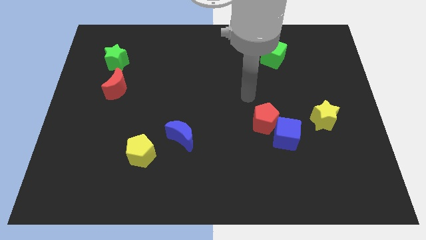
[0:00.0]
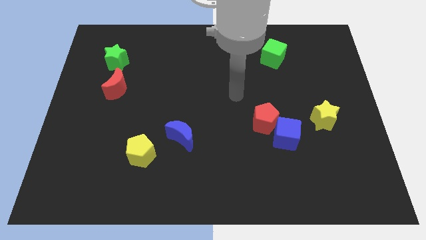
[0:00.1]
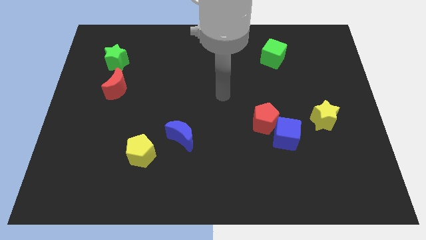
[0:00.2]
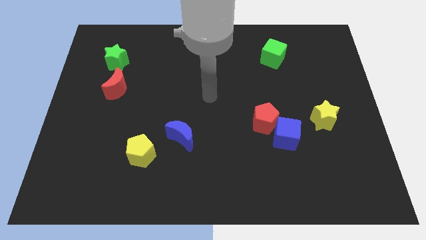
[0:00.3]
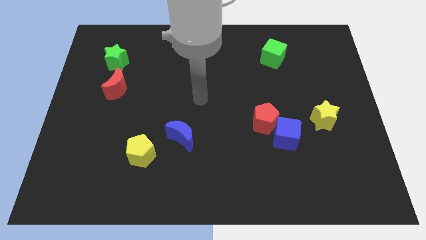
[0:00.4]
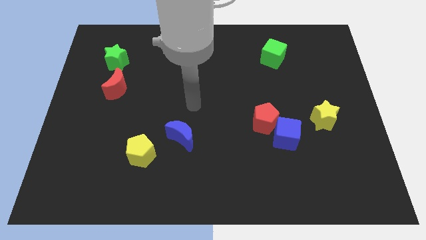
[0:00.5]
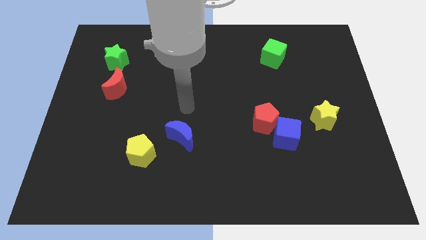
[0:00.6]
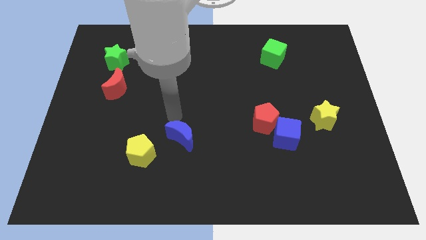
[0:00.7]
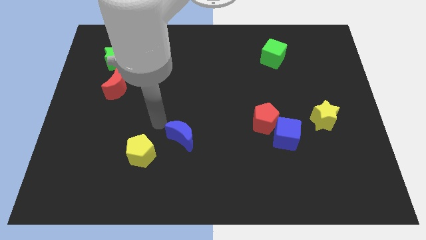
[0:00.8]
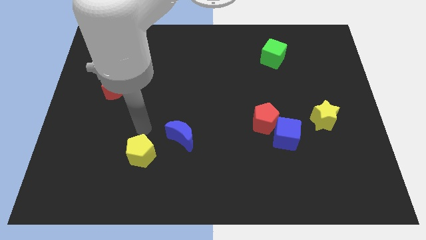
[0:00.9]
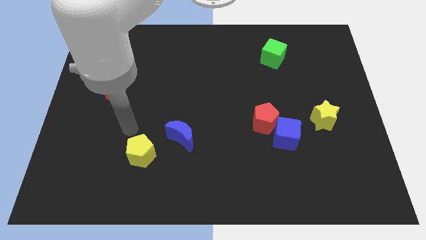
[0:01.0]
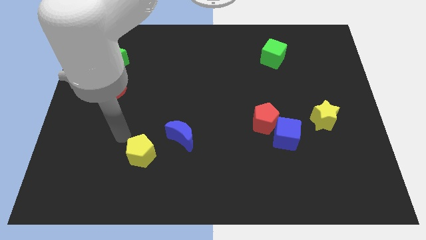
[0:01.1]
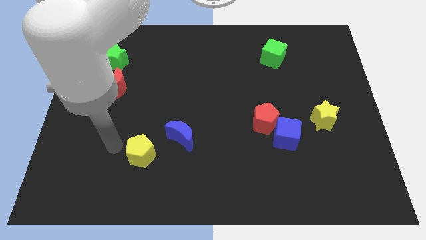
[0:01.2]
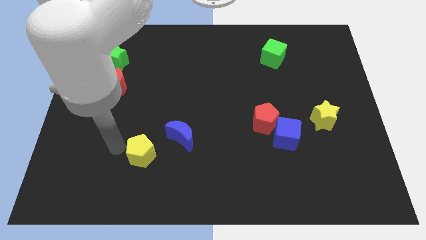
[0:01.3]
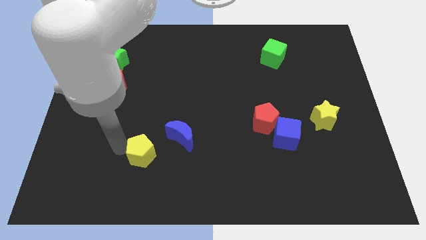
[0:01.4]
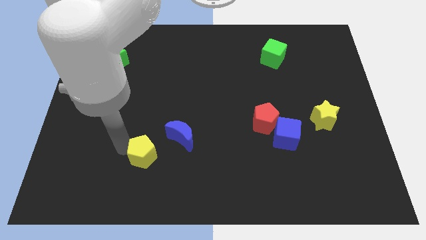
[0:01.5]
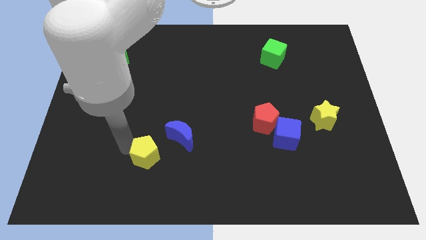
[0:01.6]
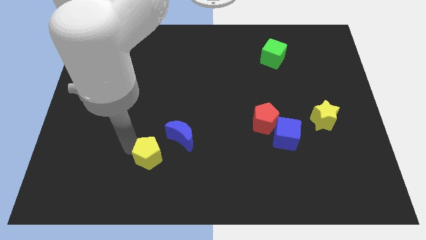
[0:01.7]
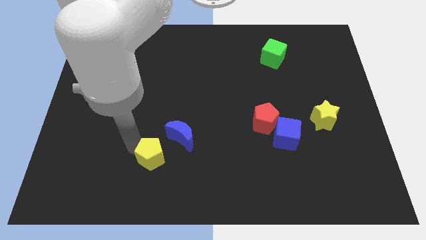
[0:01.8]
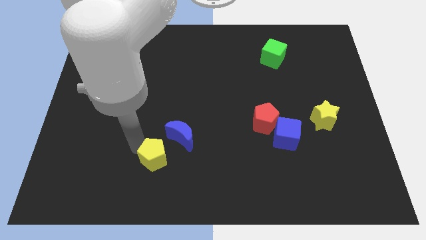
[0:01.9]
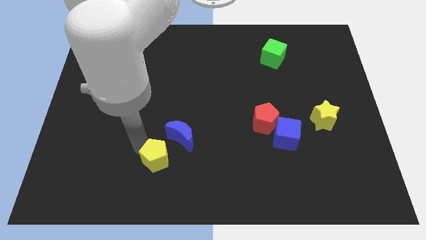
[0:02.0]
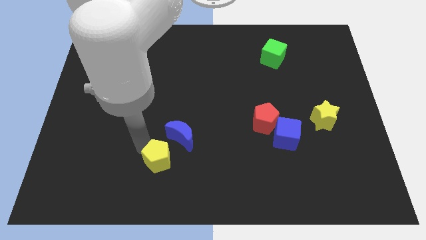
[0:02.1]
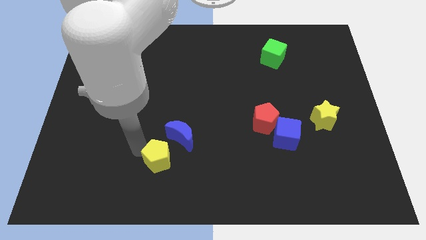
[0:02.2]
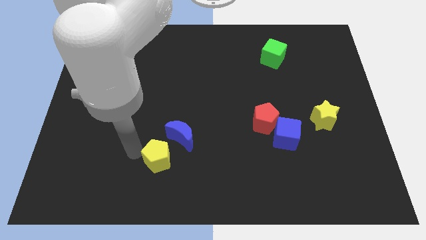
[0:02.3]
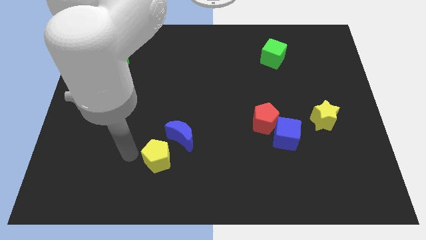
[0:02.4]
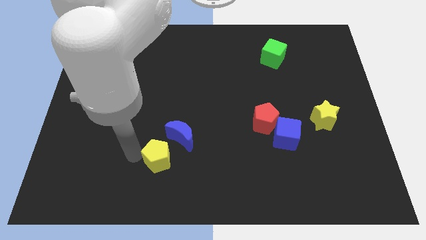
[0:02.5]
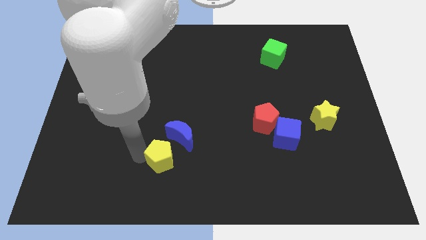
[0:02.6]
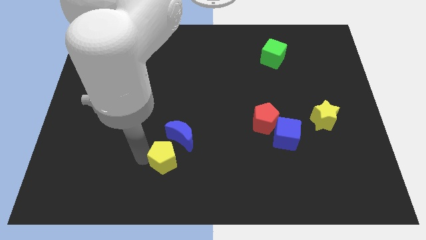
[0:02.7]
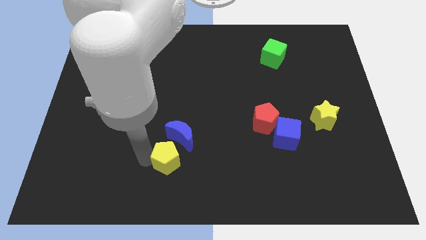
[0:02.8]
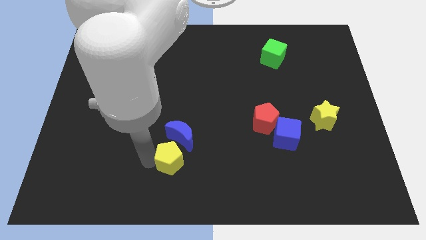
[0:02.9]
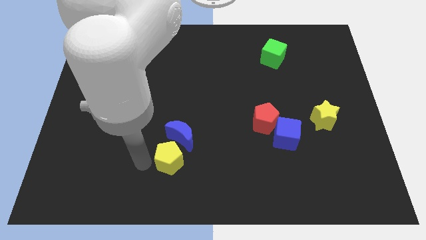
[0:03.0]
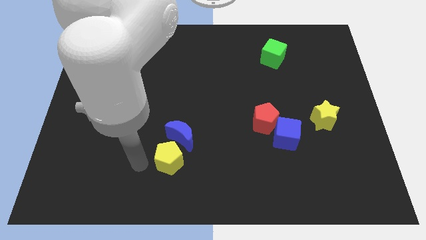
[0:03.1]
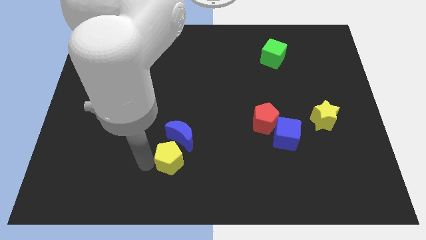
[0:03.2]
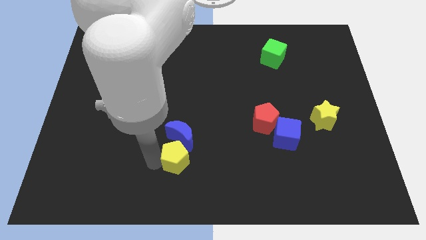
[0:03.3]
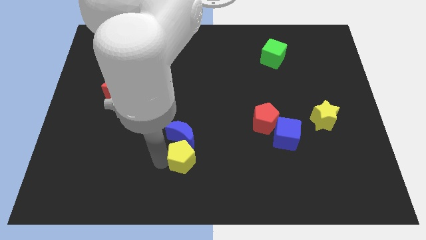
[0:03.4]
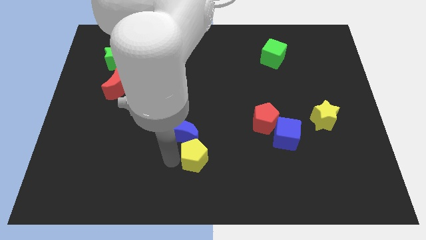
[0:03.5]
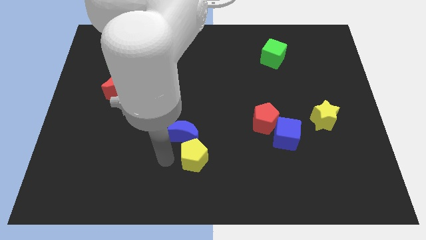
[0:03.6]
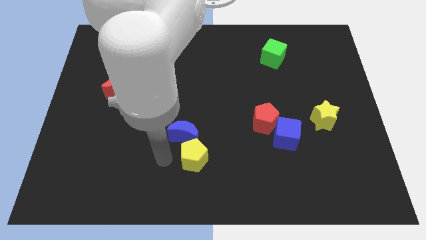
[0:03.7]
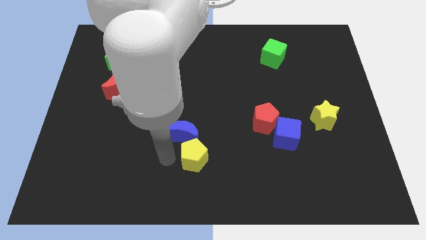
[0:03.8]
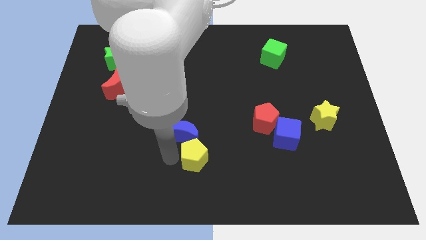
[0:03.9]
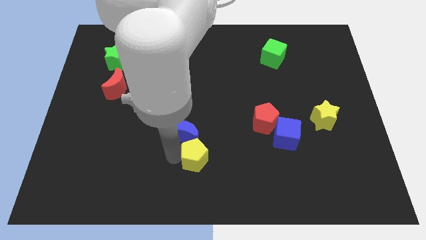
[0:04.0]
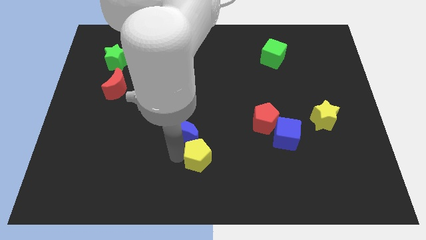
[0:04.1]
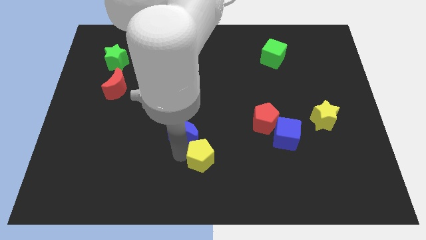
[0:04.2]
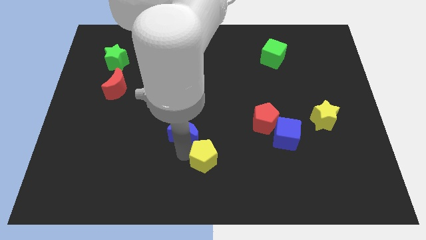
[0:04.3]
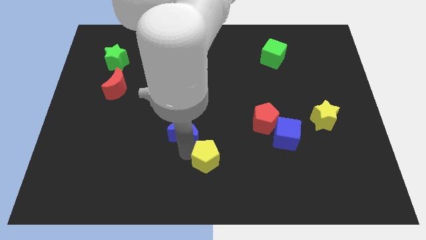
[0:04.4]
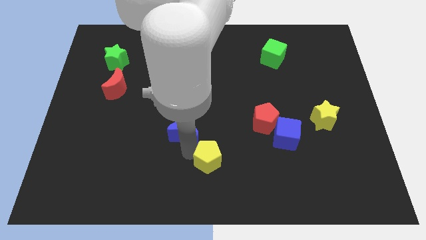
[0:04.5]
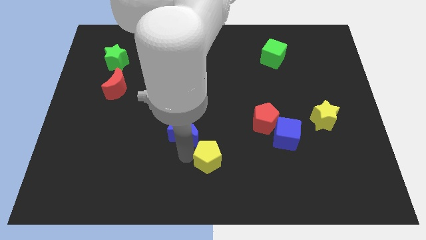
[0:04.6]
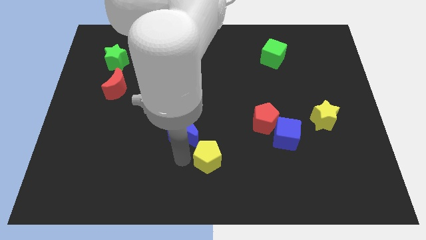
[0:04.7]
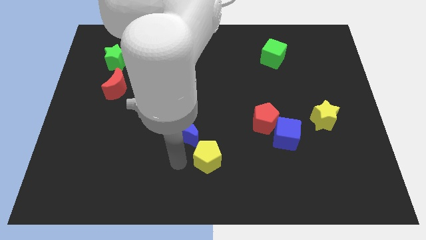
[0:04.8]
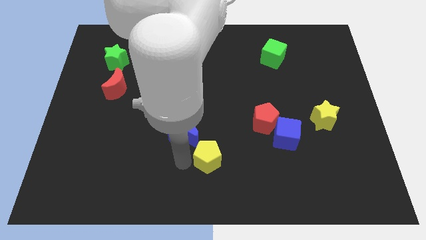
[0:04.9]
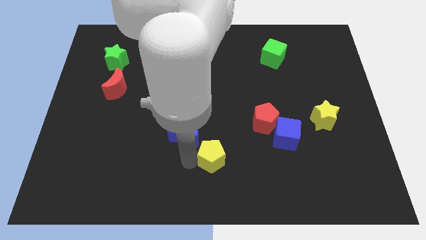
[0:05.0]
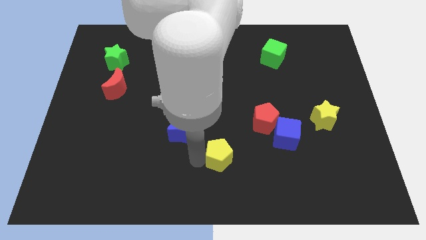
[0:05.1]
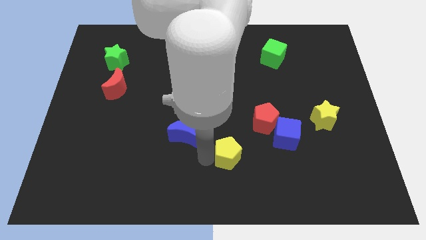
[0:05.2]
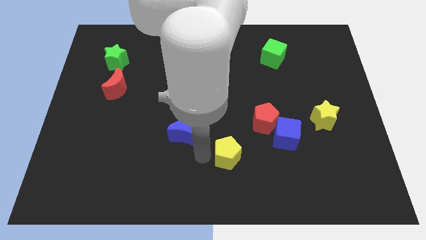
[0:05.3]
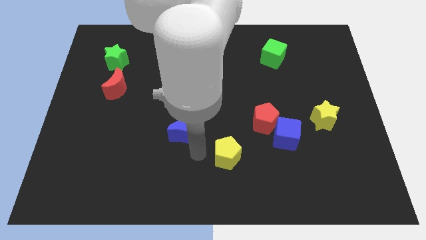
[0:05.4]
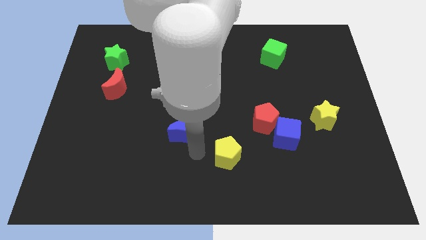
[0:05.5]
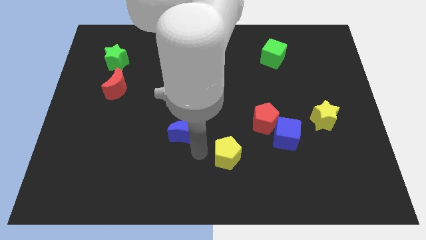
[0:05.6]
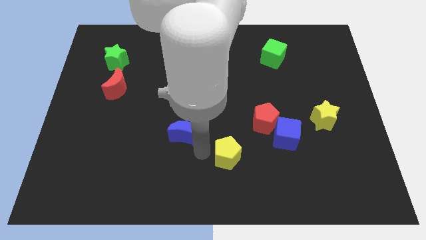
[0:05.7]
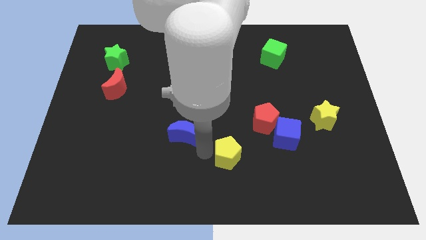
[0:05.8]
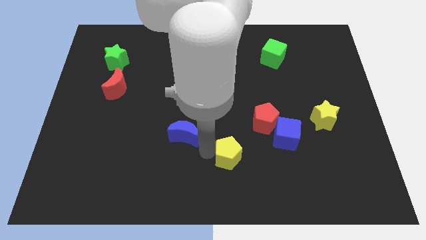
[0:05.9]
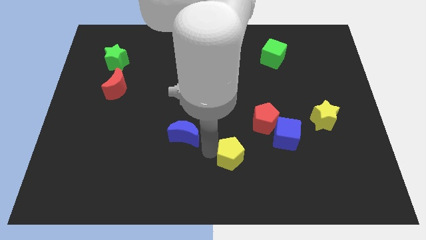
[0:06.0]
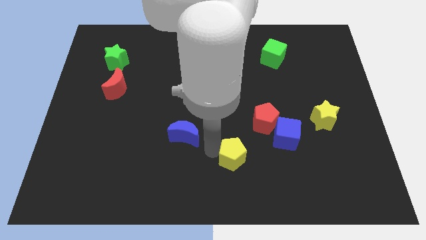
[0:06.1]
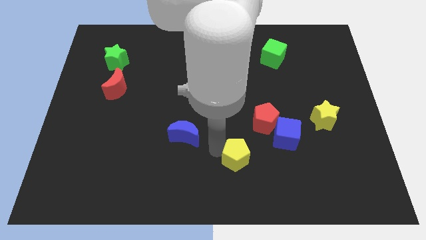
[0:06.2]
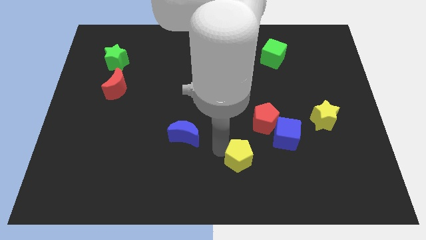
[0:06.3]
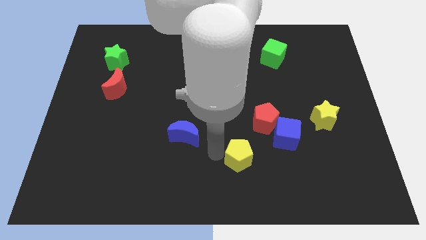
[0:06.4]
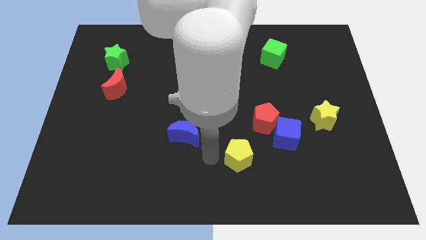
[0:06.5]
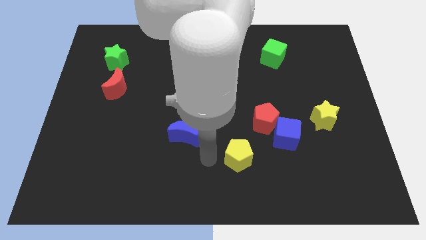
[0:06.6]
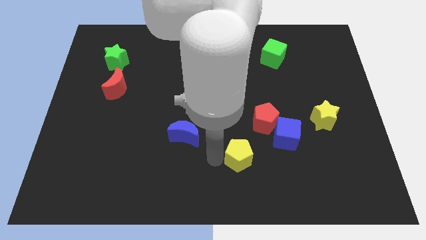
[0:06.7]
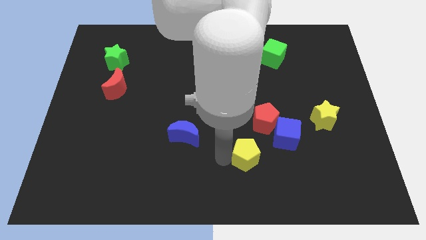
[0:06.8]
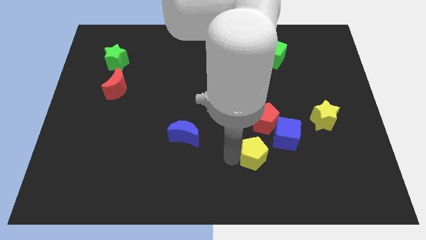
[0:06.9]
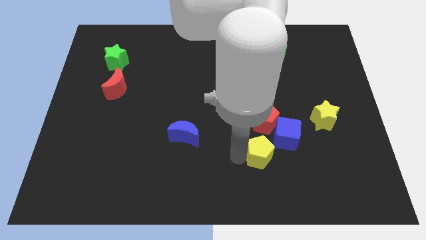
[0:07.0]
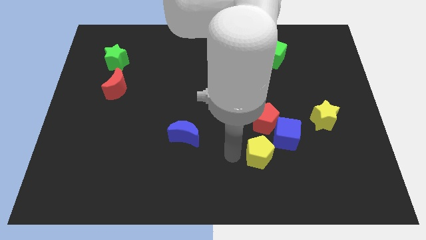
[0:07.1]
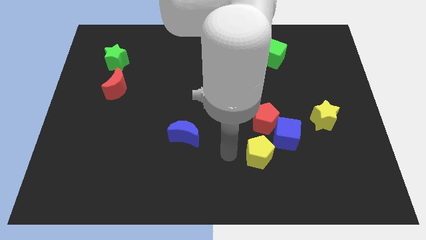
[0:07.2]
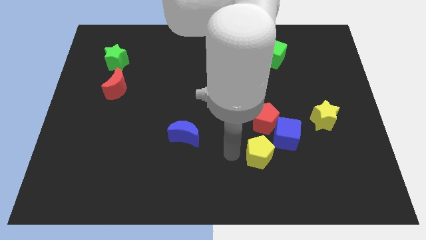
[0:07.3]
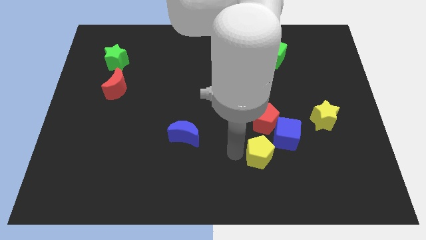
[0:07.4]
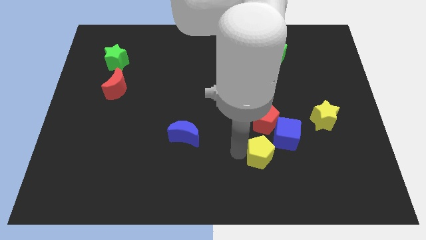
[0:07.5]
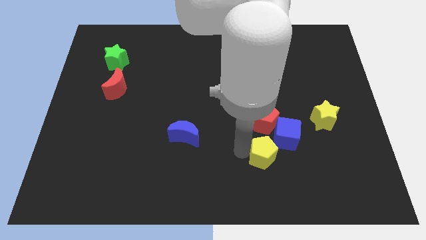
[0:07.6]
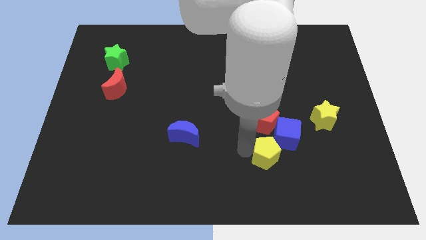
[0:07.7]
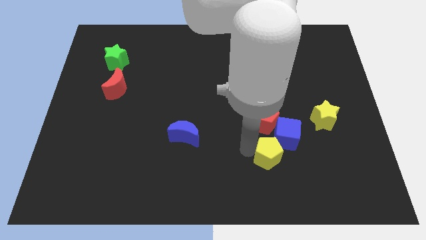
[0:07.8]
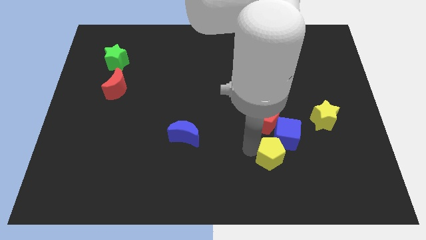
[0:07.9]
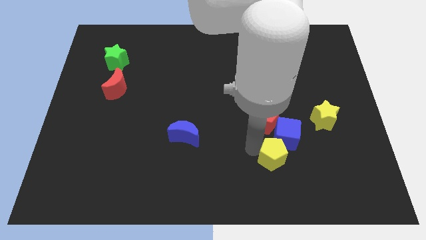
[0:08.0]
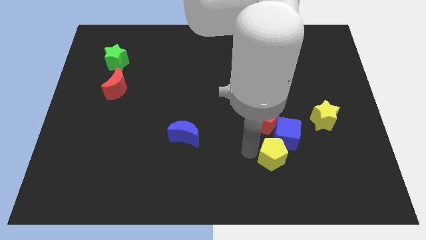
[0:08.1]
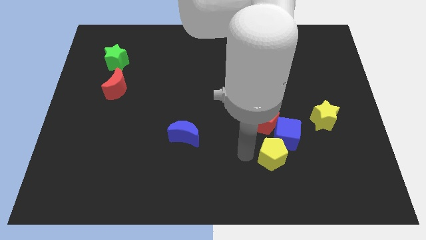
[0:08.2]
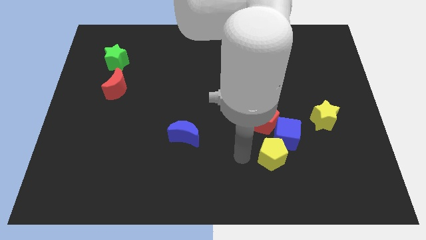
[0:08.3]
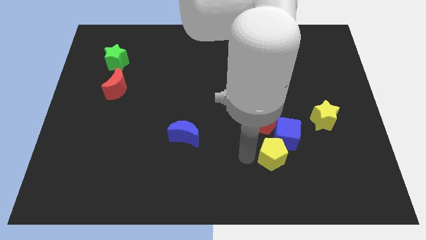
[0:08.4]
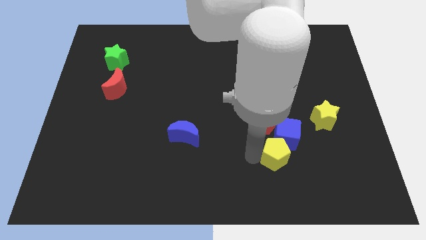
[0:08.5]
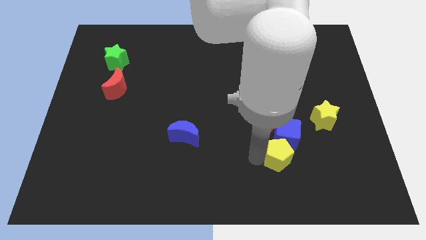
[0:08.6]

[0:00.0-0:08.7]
push the yellow pentagon to the bottom right side of the red pentagon
